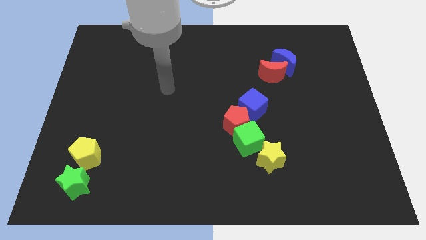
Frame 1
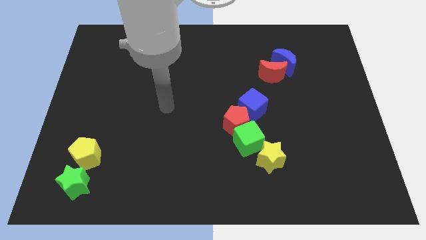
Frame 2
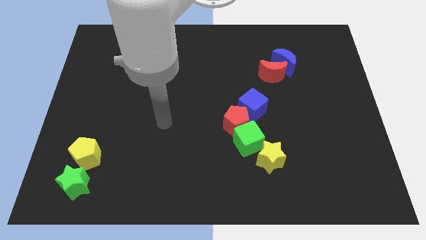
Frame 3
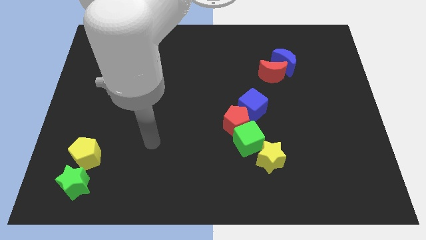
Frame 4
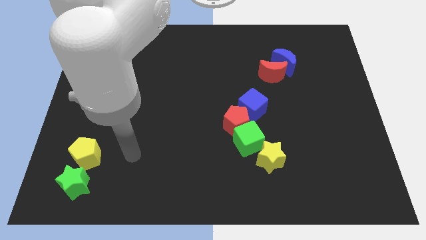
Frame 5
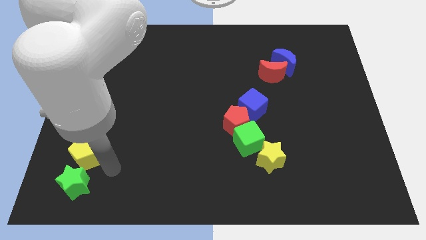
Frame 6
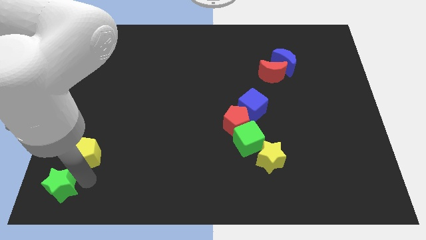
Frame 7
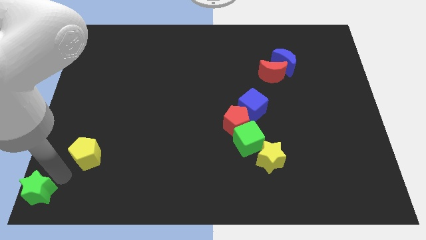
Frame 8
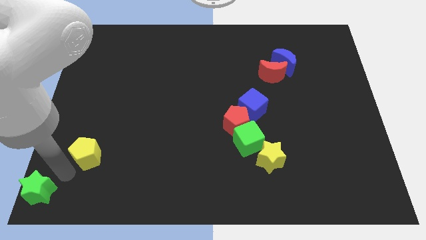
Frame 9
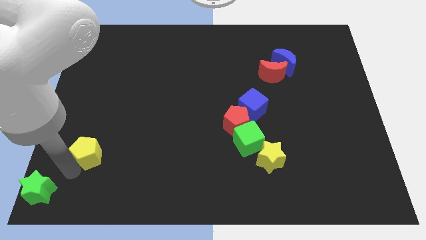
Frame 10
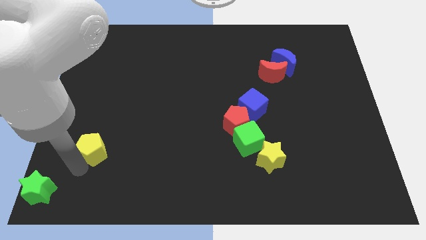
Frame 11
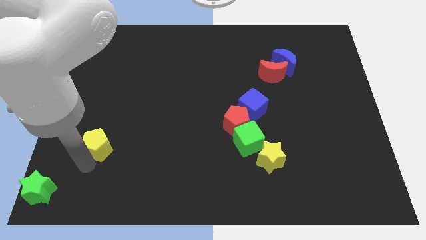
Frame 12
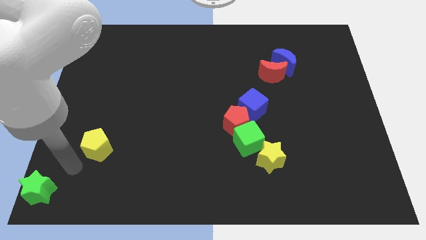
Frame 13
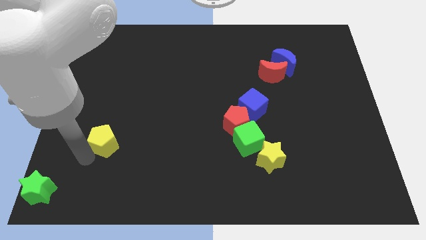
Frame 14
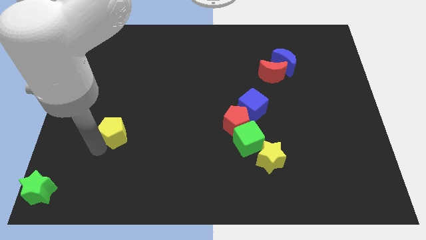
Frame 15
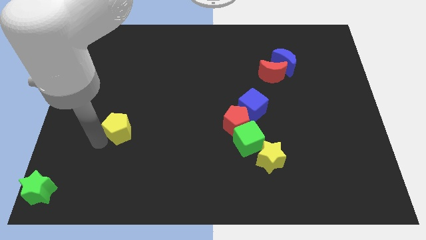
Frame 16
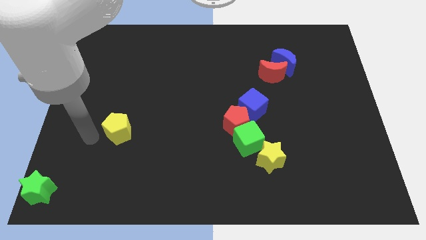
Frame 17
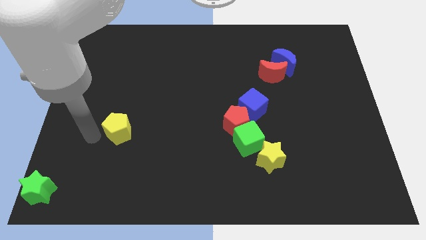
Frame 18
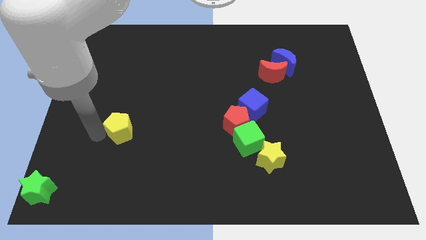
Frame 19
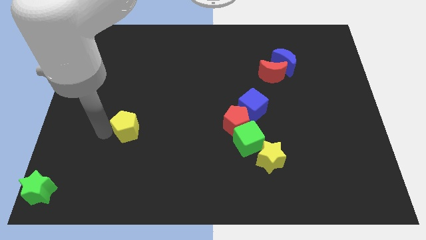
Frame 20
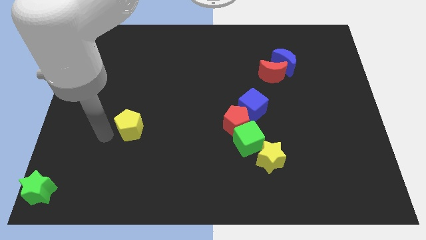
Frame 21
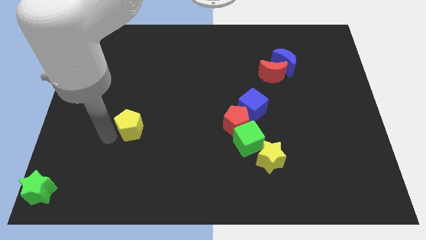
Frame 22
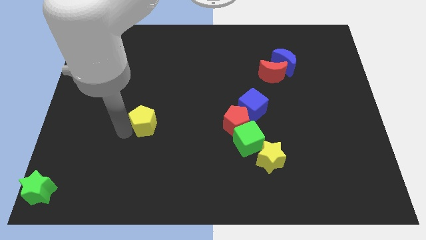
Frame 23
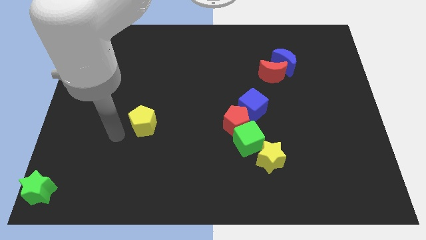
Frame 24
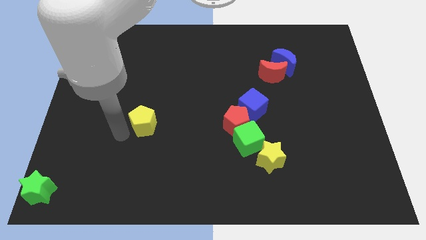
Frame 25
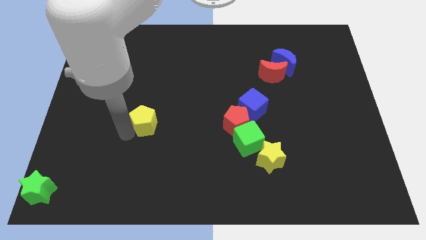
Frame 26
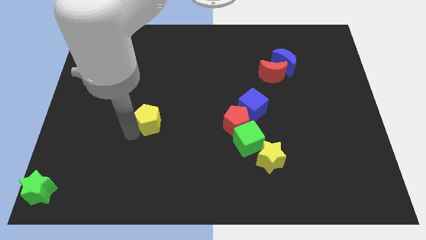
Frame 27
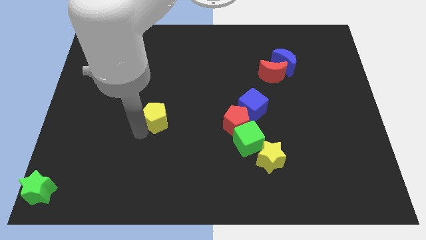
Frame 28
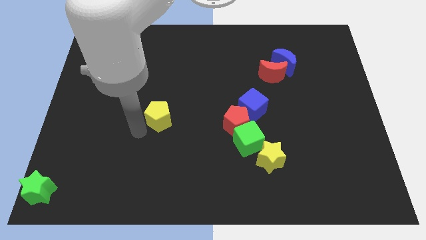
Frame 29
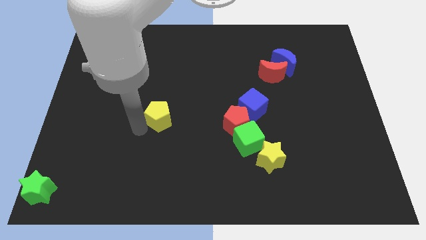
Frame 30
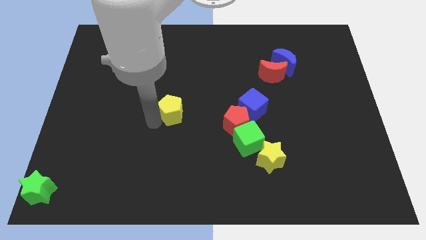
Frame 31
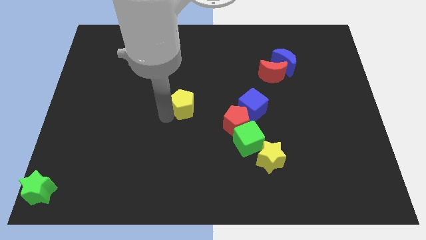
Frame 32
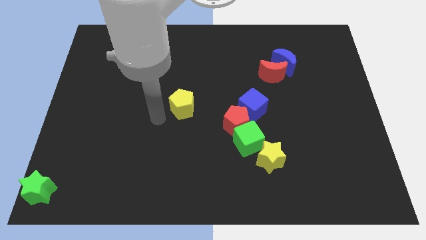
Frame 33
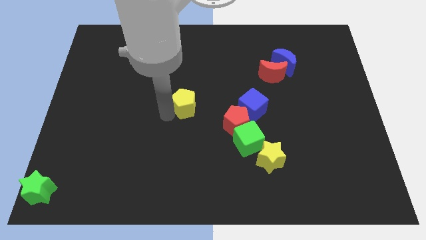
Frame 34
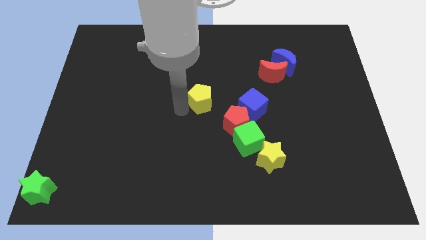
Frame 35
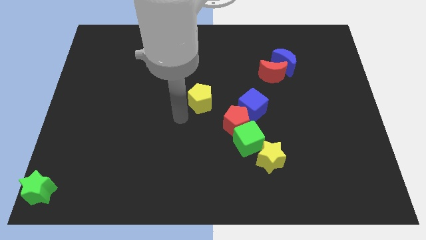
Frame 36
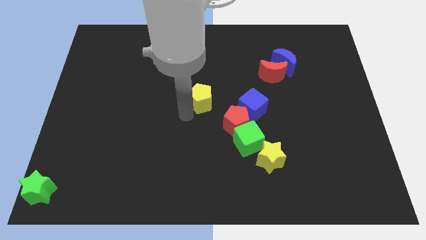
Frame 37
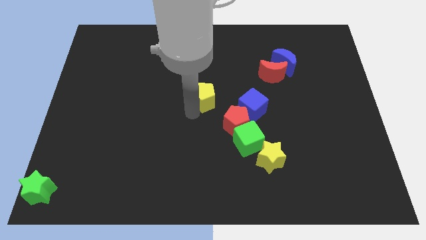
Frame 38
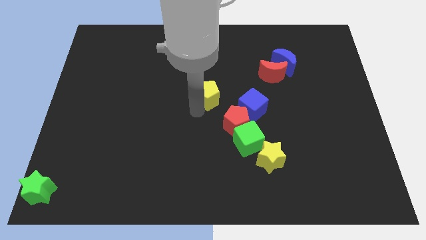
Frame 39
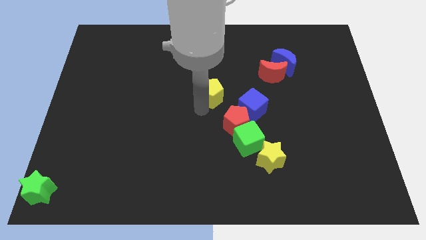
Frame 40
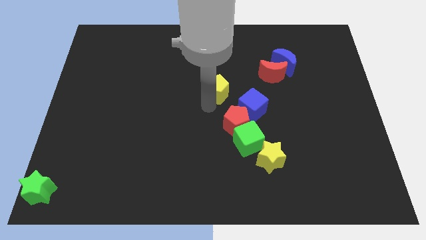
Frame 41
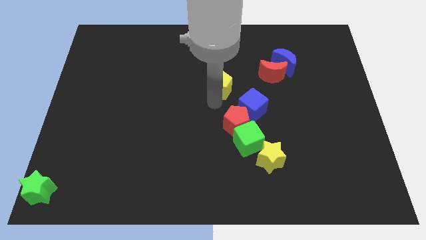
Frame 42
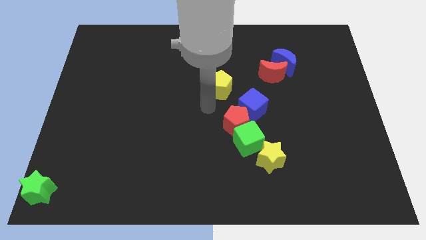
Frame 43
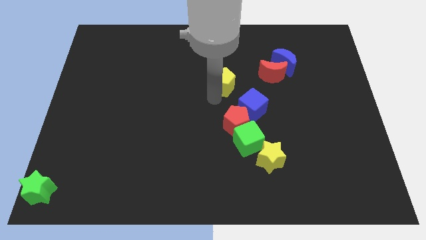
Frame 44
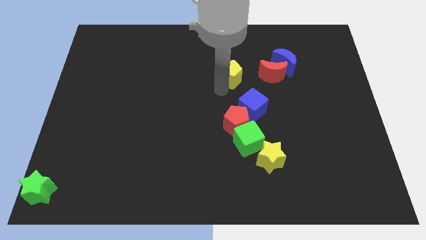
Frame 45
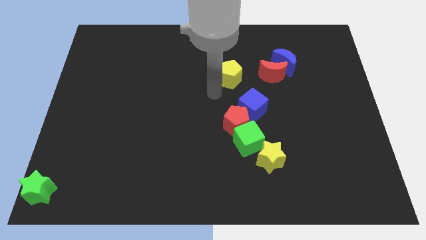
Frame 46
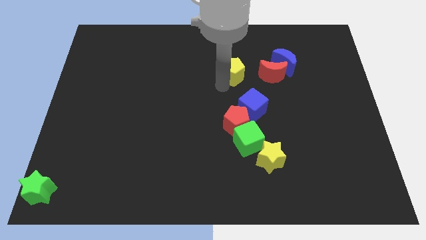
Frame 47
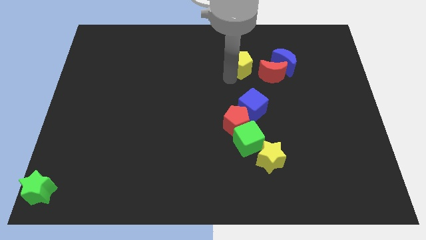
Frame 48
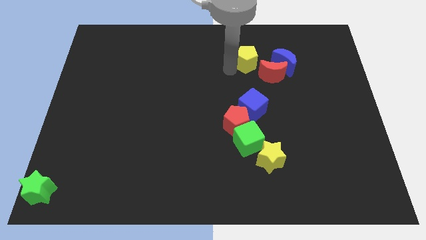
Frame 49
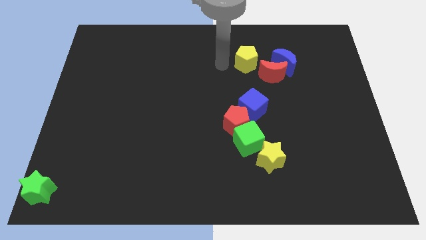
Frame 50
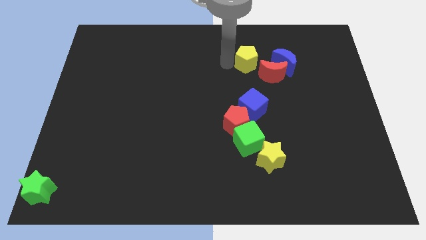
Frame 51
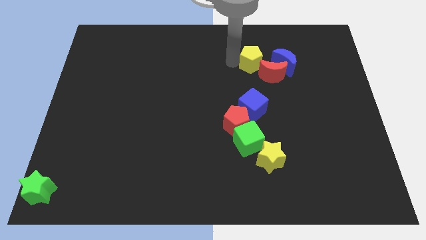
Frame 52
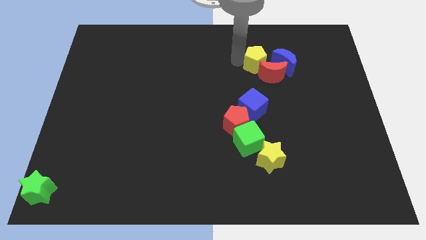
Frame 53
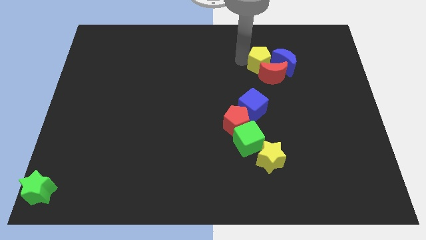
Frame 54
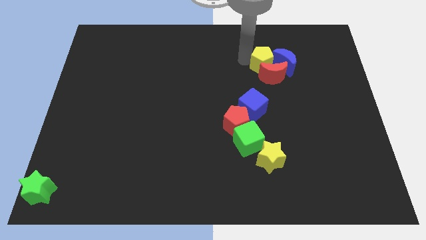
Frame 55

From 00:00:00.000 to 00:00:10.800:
push the yellow pentagon next to the blue moon

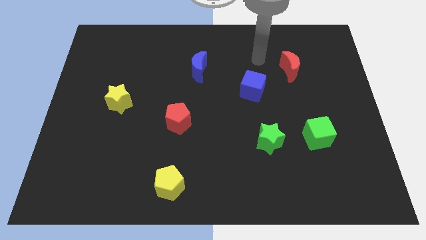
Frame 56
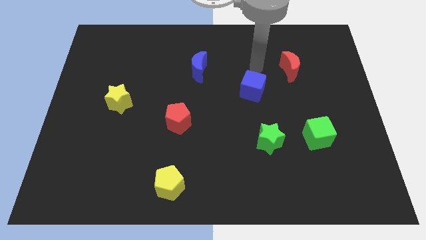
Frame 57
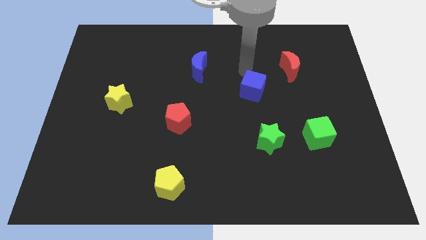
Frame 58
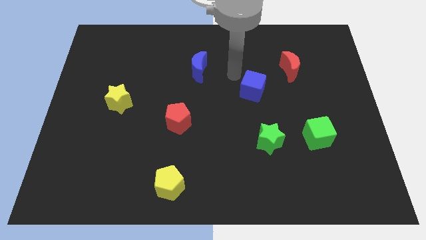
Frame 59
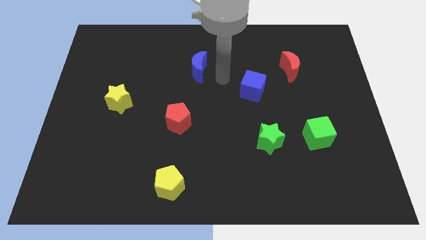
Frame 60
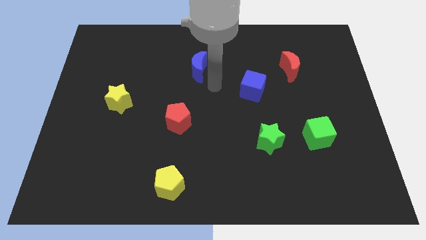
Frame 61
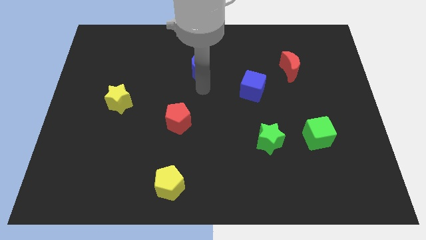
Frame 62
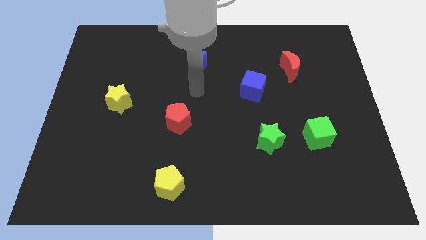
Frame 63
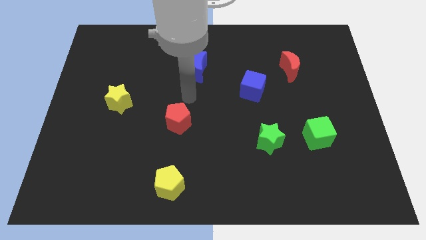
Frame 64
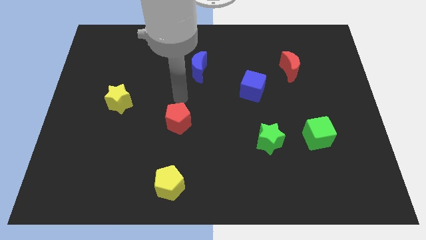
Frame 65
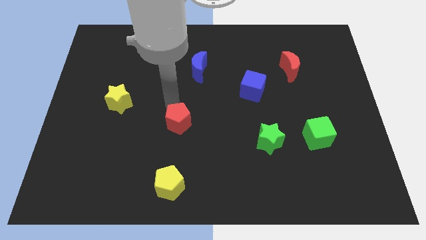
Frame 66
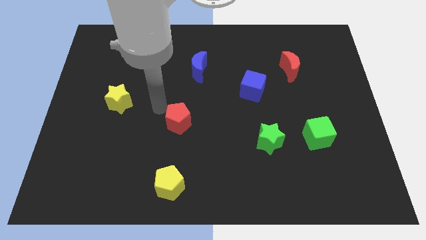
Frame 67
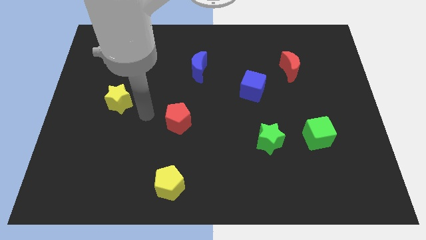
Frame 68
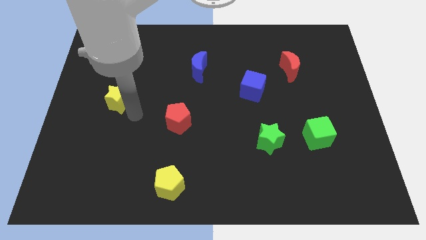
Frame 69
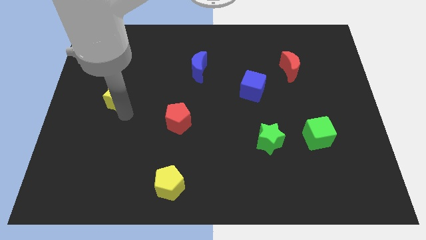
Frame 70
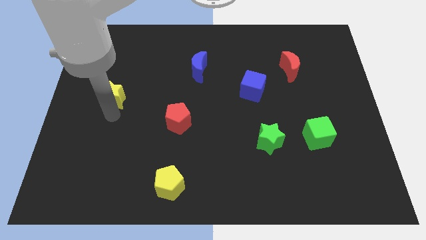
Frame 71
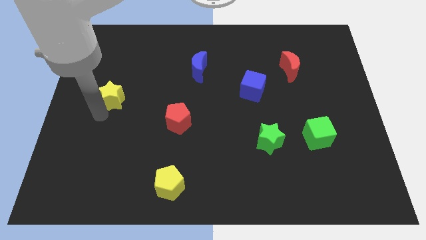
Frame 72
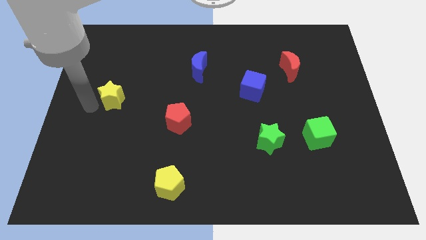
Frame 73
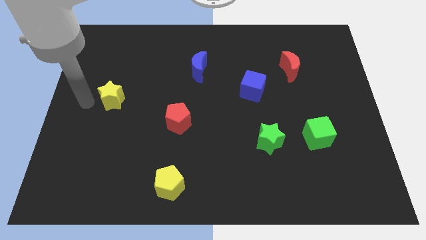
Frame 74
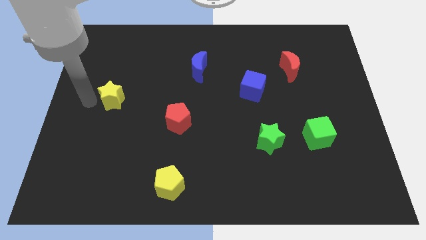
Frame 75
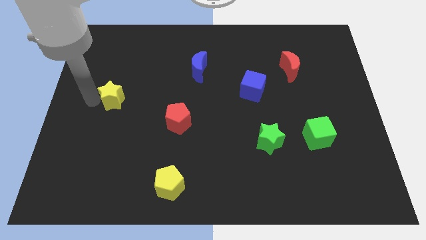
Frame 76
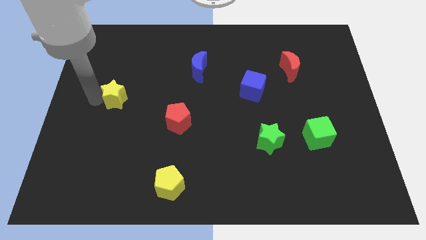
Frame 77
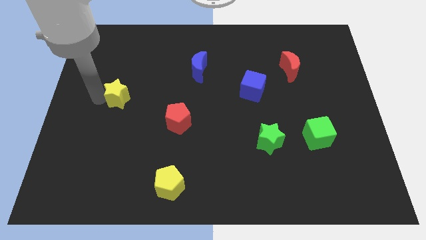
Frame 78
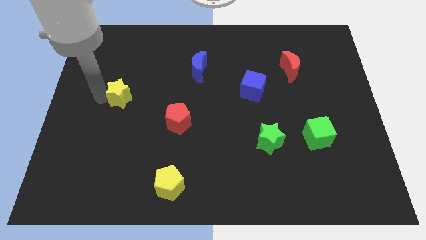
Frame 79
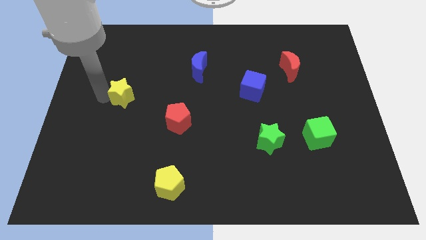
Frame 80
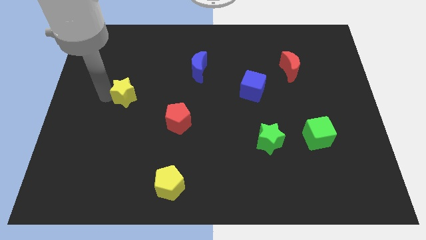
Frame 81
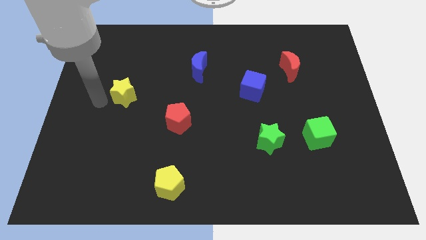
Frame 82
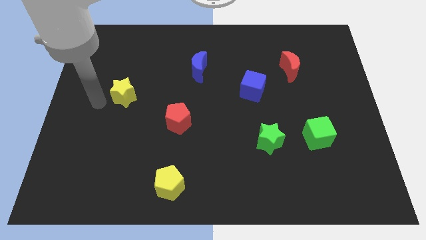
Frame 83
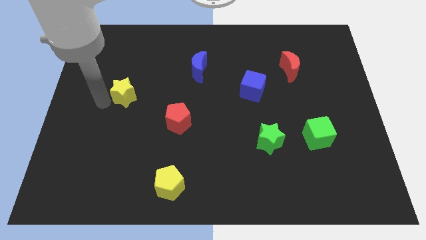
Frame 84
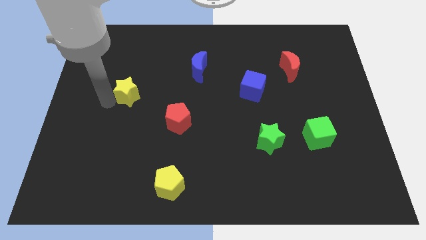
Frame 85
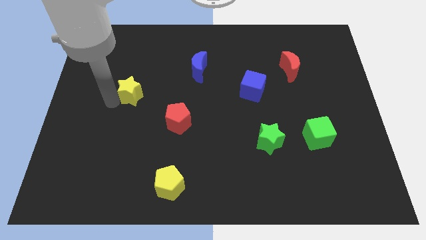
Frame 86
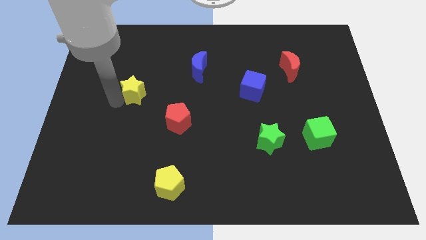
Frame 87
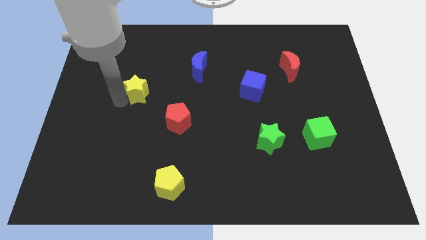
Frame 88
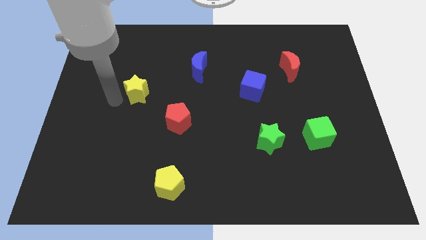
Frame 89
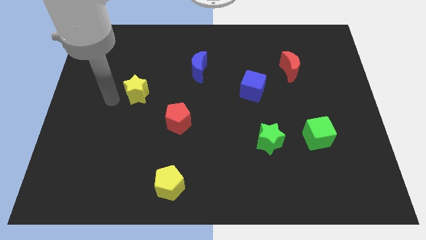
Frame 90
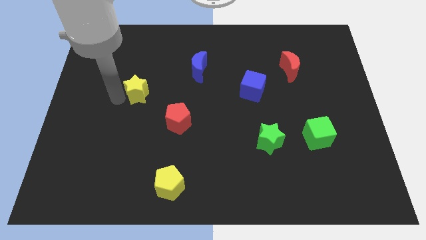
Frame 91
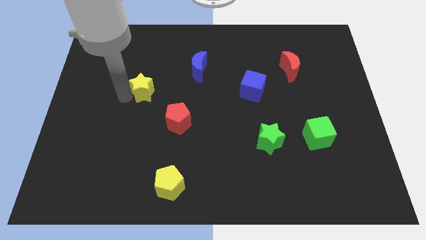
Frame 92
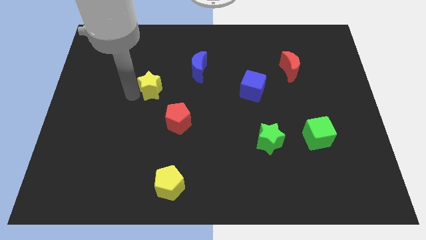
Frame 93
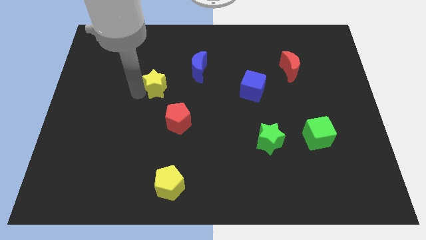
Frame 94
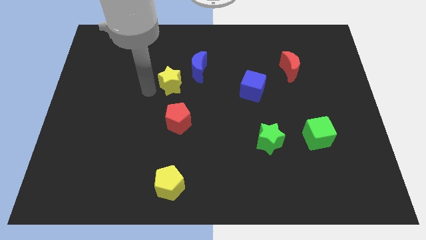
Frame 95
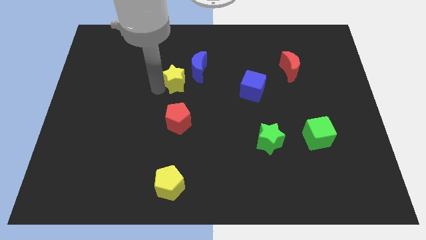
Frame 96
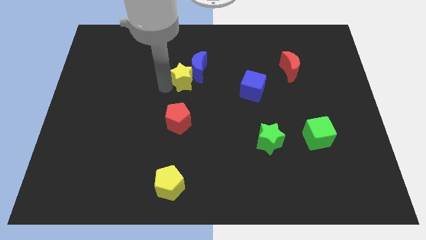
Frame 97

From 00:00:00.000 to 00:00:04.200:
move the yellow star next to the blue moon
